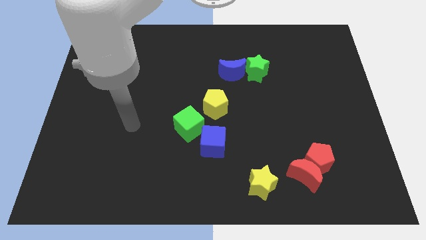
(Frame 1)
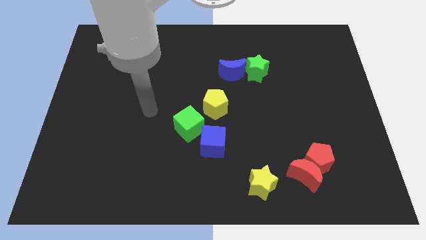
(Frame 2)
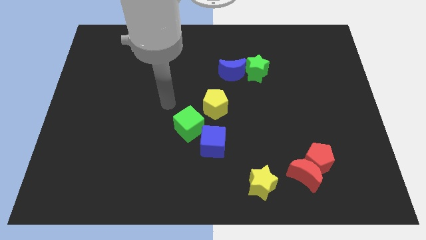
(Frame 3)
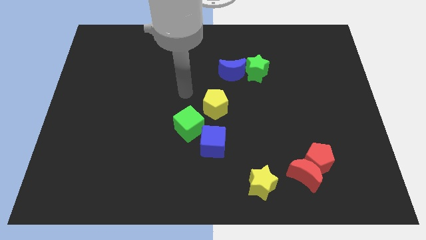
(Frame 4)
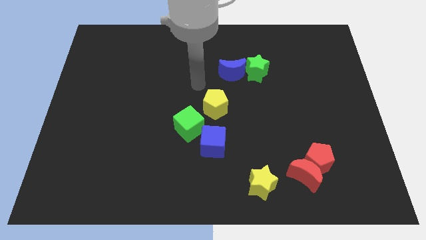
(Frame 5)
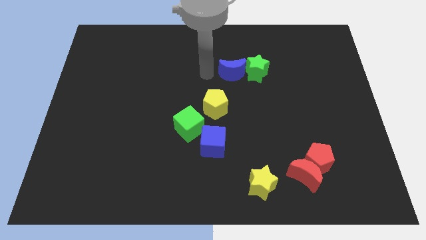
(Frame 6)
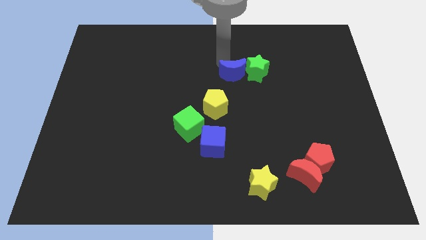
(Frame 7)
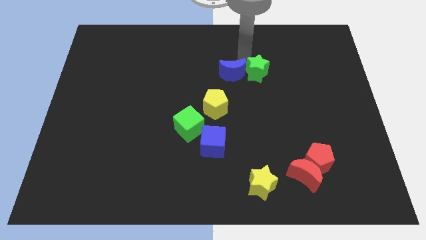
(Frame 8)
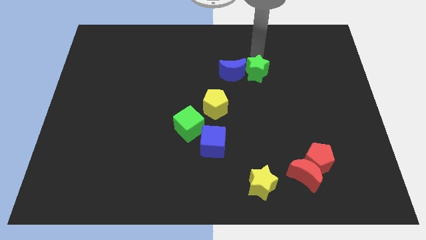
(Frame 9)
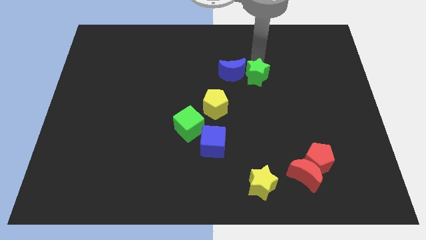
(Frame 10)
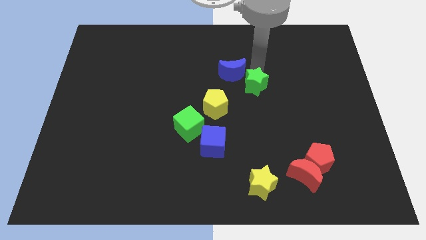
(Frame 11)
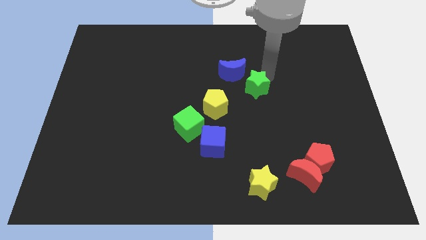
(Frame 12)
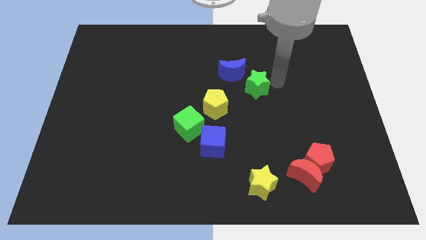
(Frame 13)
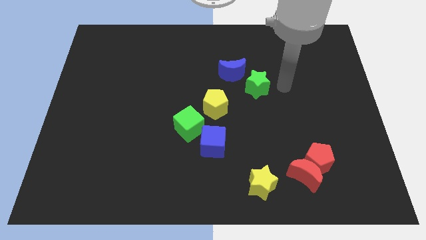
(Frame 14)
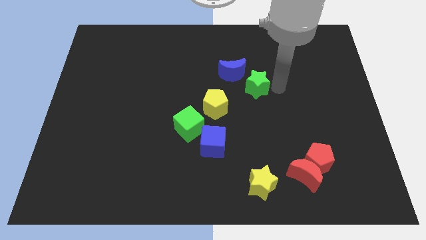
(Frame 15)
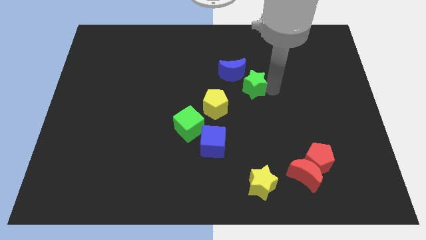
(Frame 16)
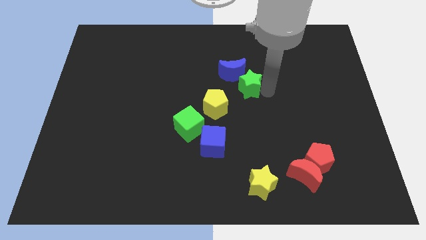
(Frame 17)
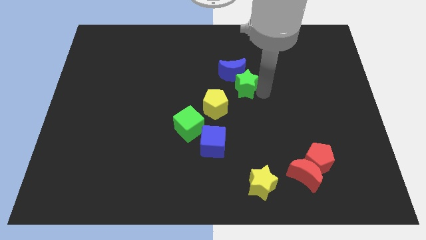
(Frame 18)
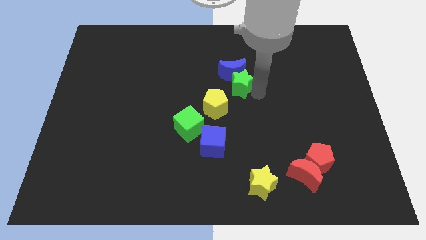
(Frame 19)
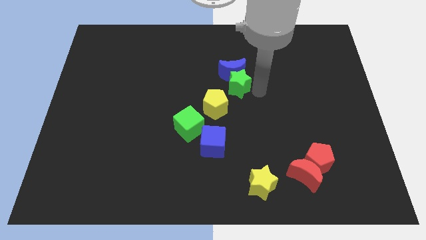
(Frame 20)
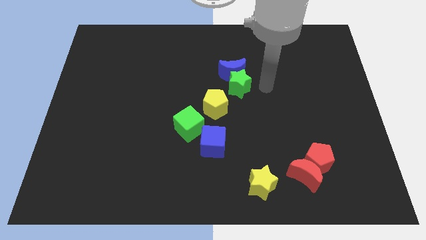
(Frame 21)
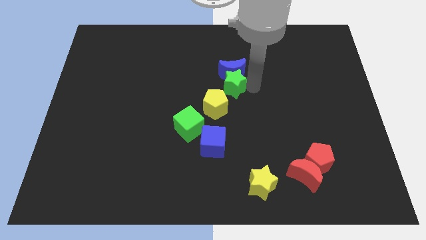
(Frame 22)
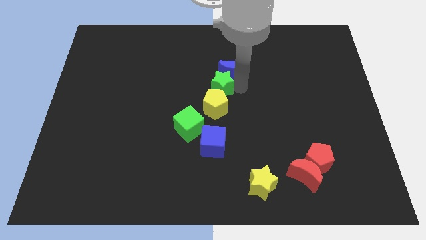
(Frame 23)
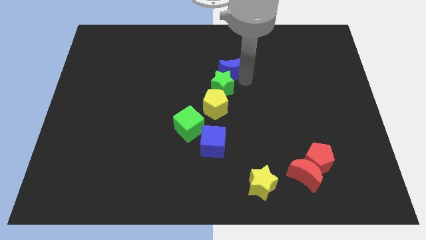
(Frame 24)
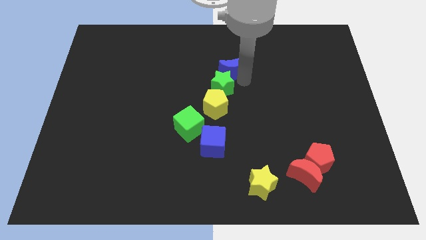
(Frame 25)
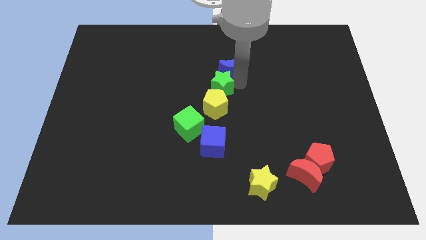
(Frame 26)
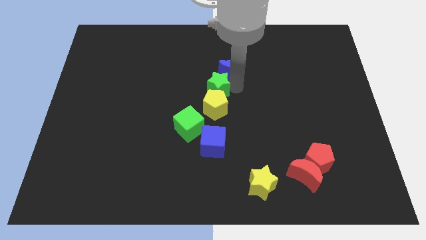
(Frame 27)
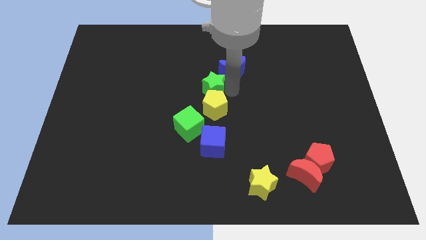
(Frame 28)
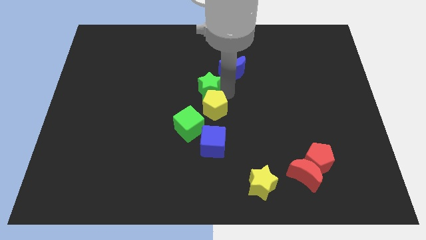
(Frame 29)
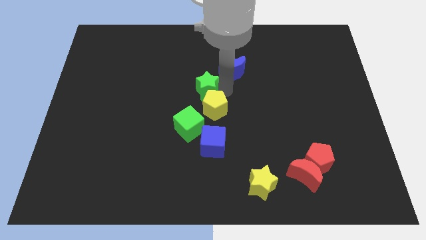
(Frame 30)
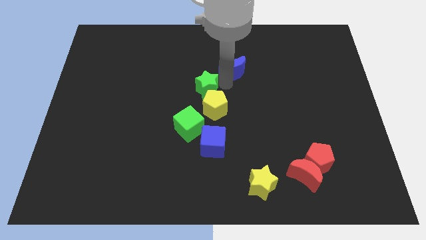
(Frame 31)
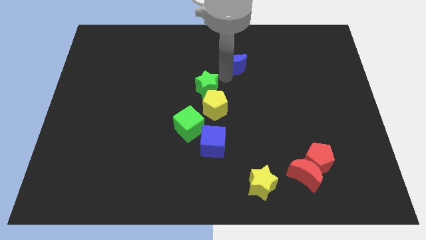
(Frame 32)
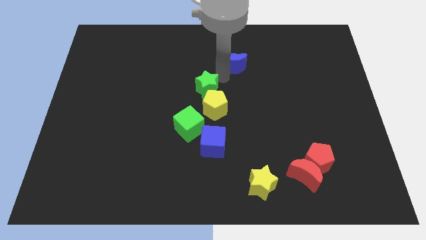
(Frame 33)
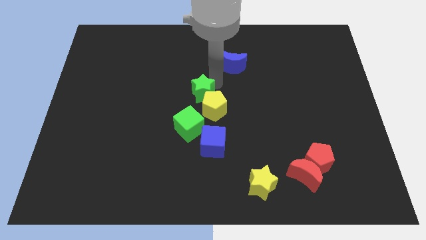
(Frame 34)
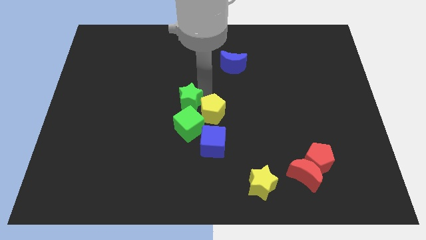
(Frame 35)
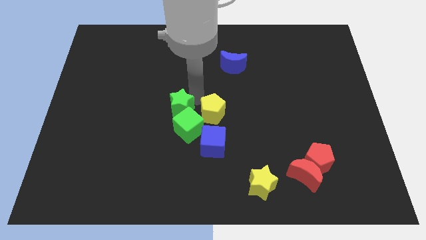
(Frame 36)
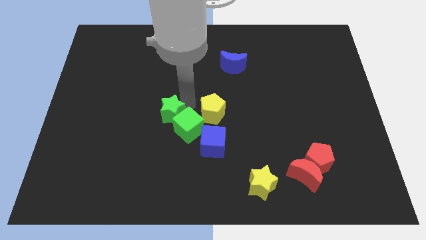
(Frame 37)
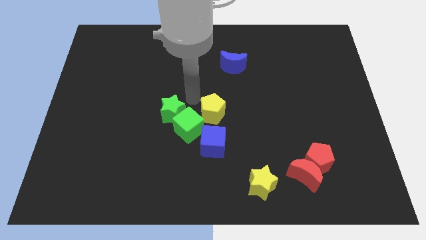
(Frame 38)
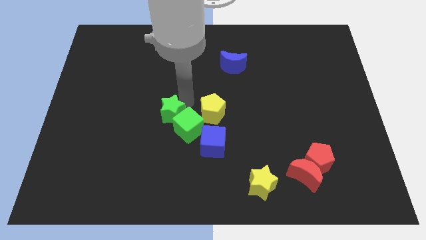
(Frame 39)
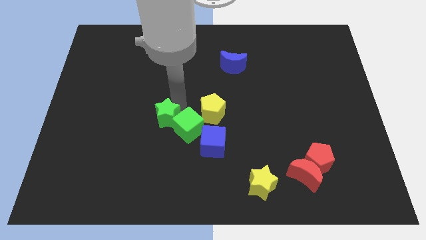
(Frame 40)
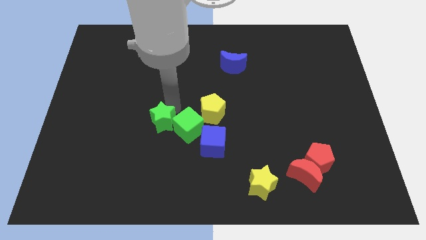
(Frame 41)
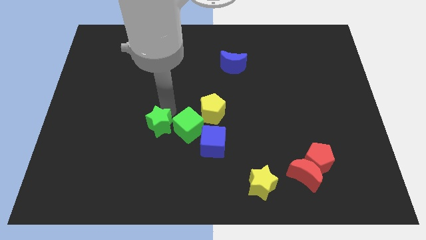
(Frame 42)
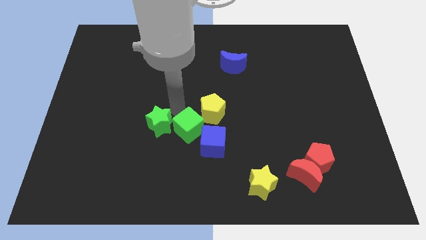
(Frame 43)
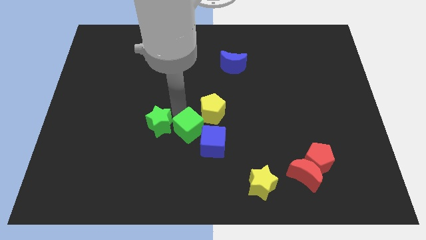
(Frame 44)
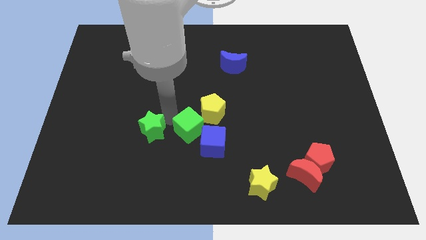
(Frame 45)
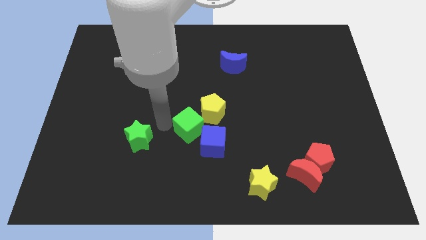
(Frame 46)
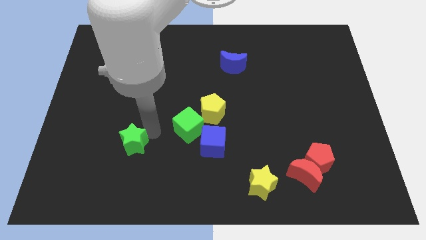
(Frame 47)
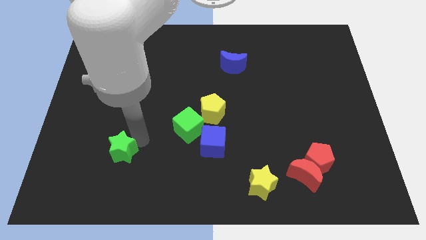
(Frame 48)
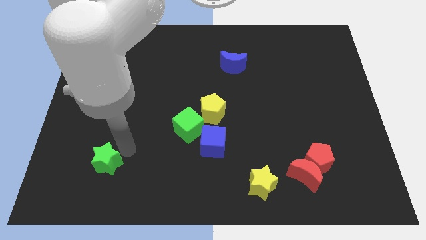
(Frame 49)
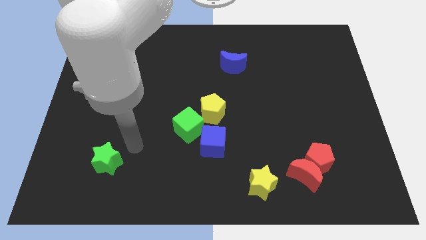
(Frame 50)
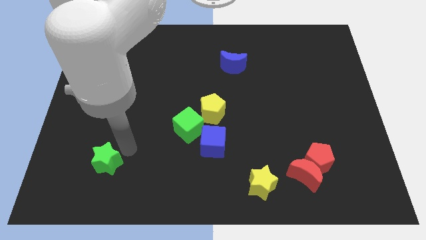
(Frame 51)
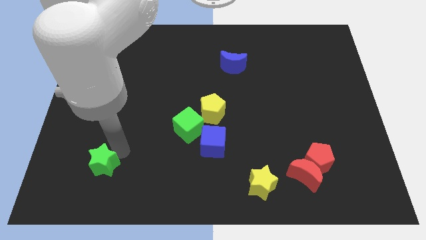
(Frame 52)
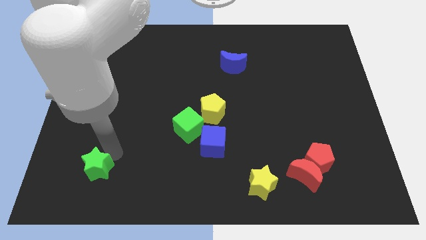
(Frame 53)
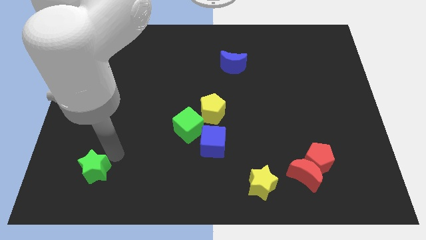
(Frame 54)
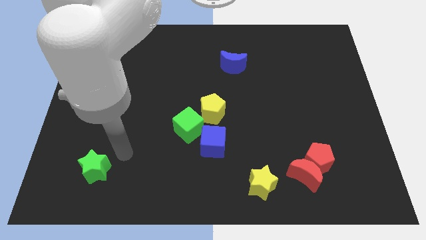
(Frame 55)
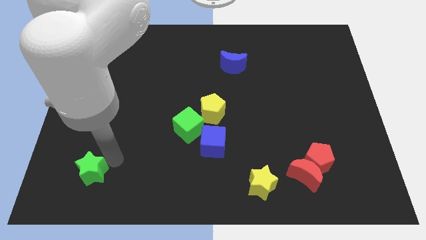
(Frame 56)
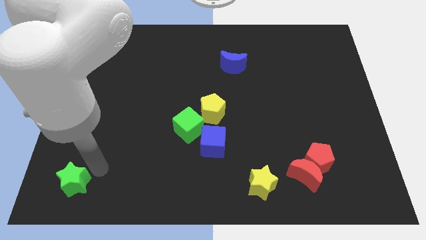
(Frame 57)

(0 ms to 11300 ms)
move the green star to the bottom left of the board
